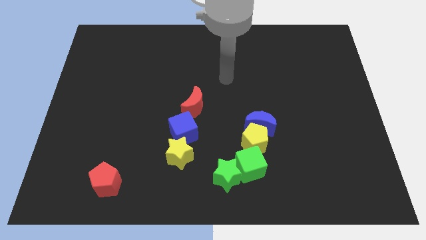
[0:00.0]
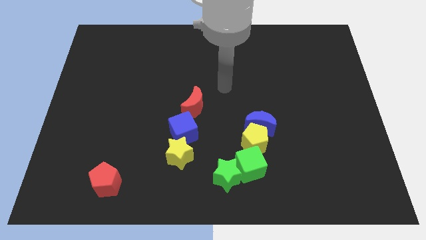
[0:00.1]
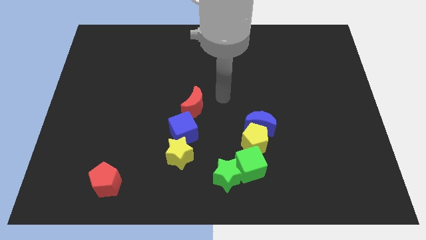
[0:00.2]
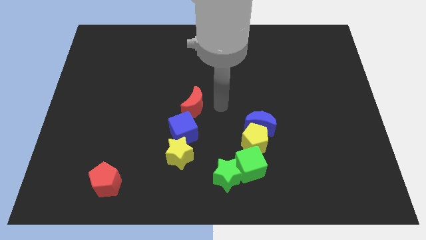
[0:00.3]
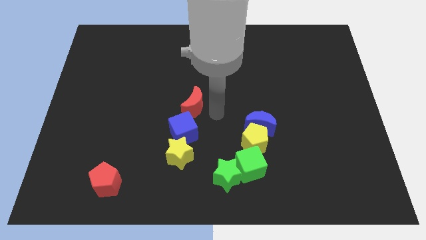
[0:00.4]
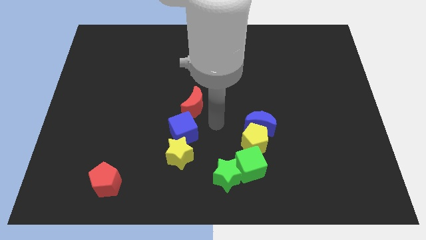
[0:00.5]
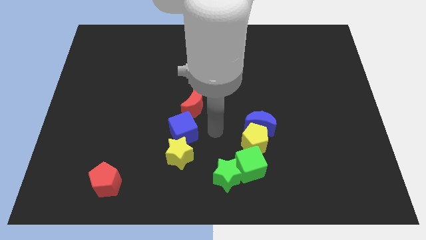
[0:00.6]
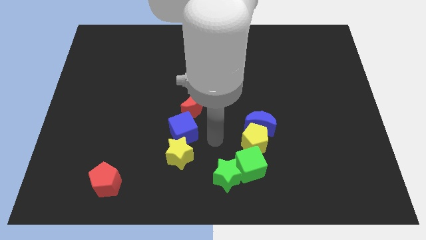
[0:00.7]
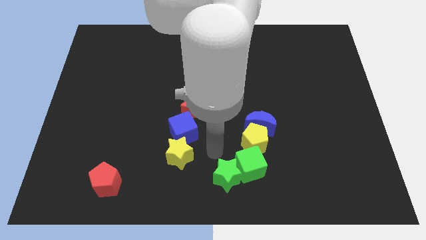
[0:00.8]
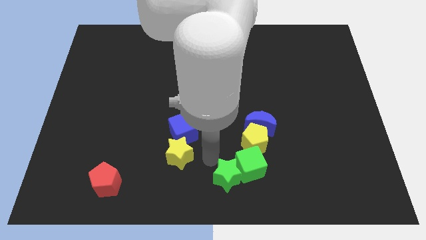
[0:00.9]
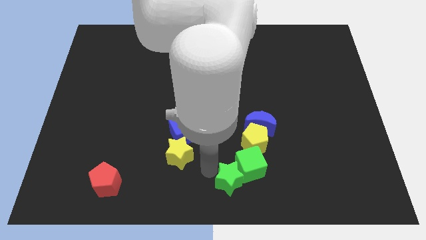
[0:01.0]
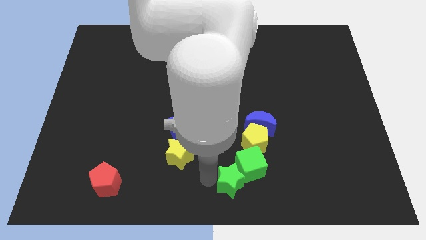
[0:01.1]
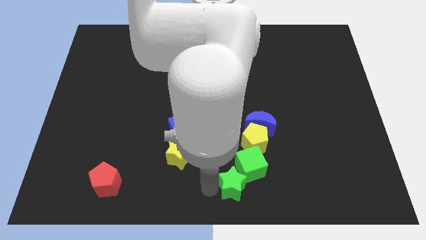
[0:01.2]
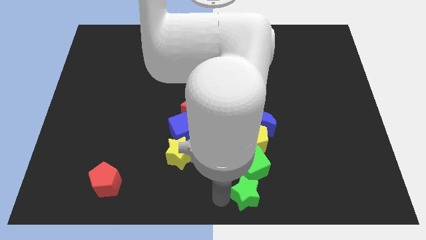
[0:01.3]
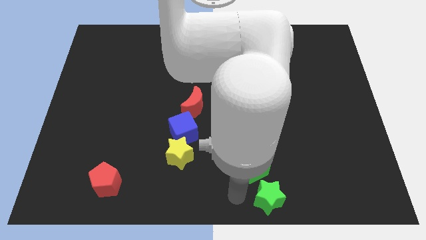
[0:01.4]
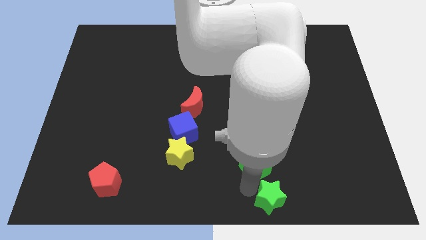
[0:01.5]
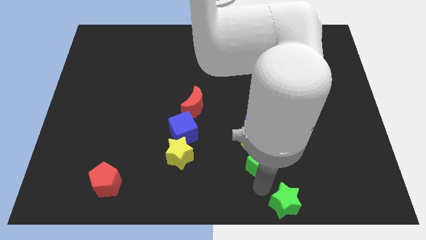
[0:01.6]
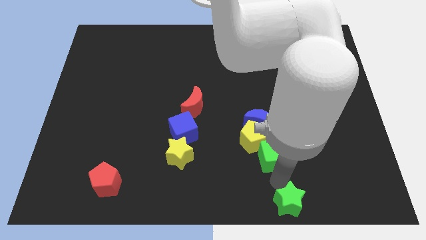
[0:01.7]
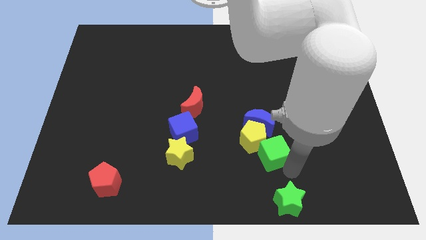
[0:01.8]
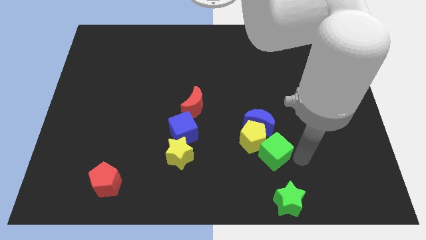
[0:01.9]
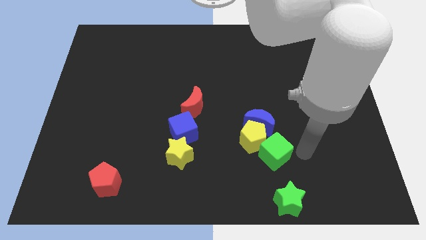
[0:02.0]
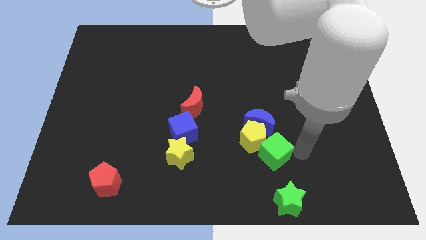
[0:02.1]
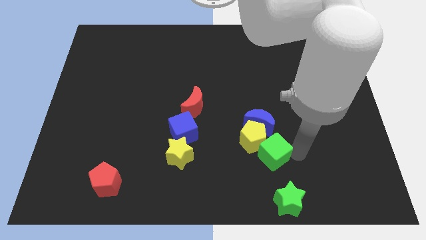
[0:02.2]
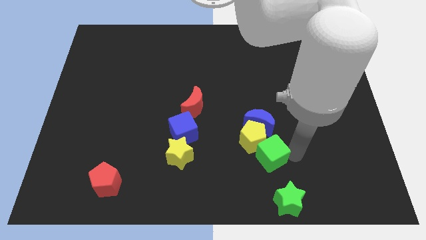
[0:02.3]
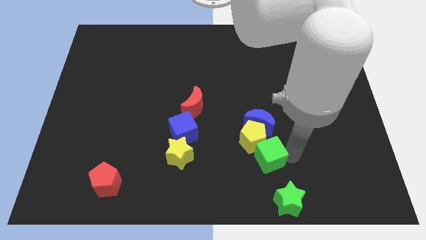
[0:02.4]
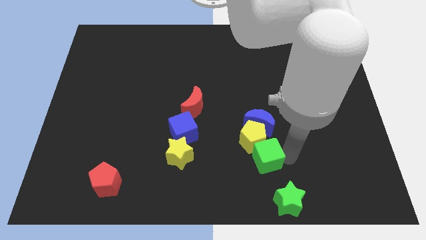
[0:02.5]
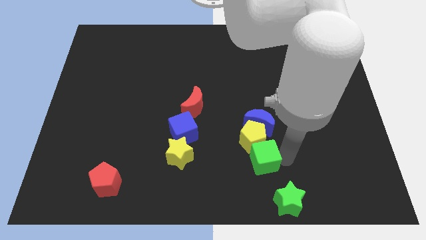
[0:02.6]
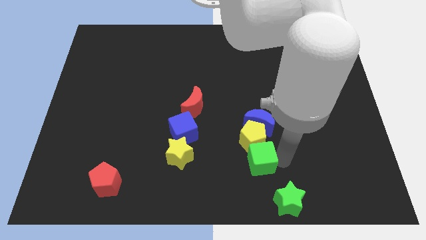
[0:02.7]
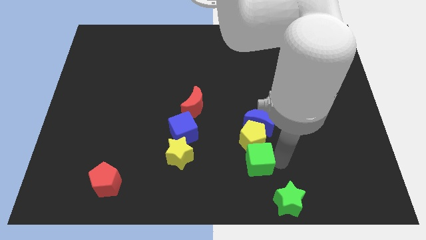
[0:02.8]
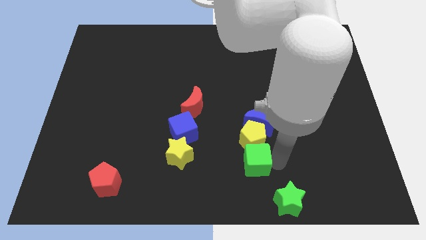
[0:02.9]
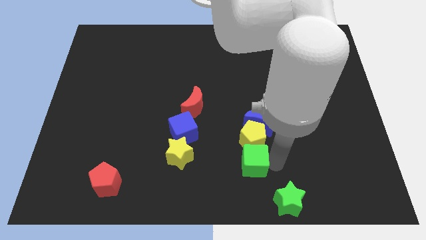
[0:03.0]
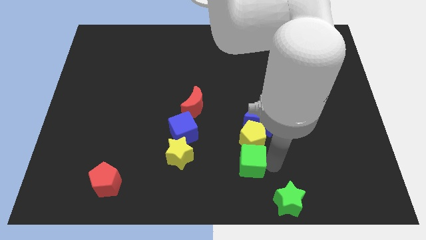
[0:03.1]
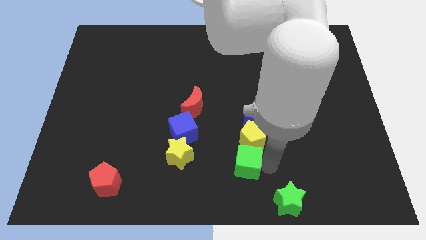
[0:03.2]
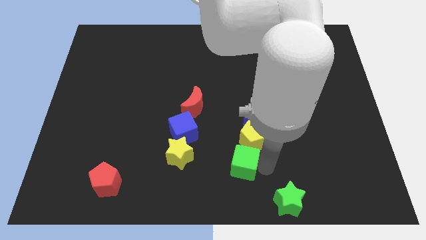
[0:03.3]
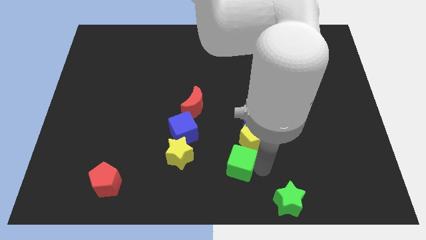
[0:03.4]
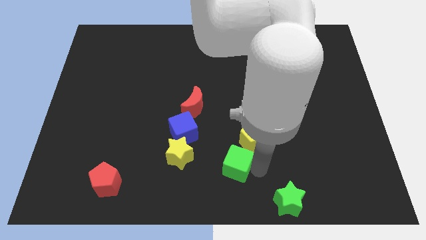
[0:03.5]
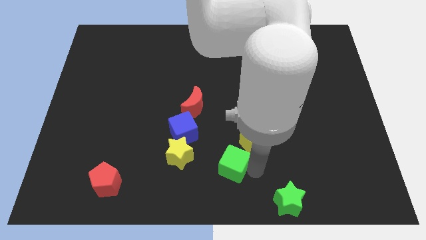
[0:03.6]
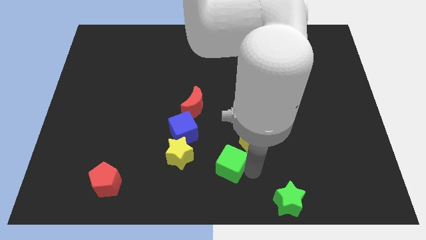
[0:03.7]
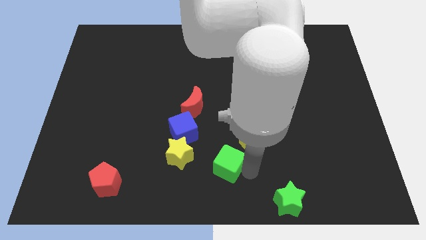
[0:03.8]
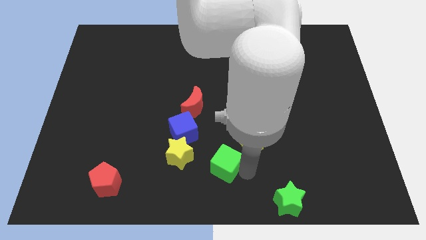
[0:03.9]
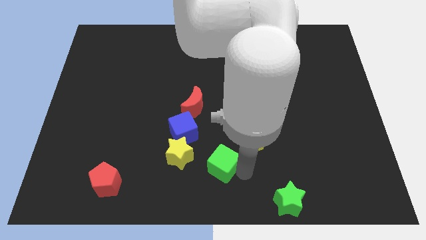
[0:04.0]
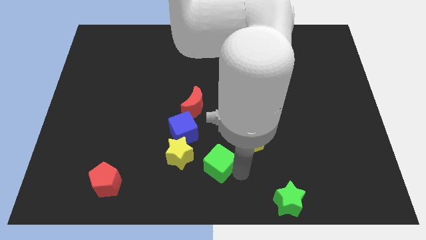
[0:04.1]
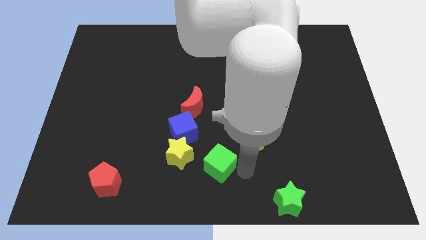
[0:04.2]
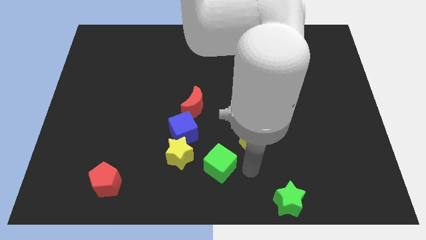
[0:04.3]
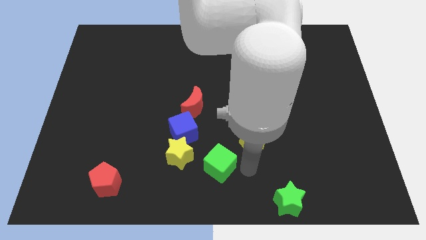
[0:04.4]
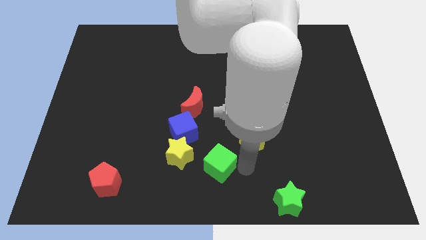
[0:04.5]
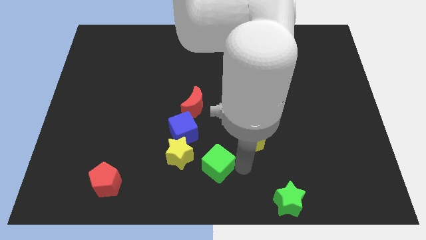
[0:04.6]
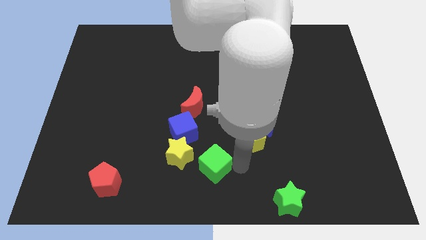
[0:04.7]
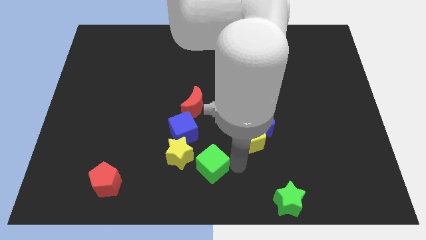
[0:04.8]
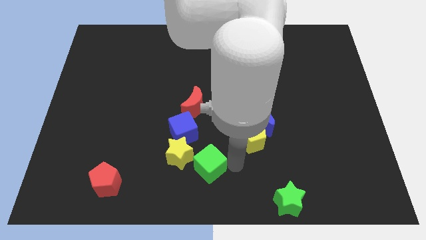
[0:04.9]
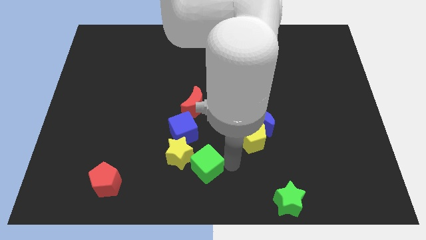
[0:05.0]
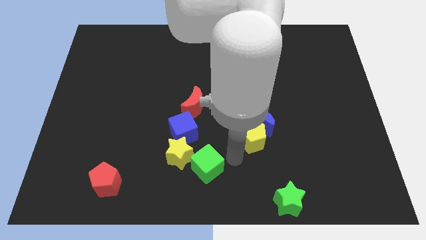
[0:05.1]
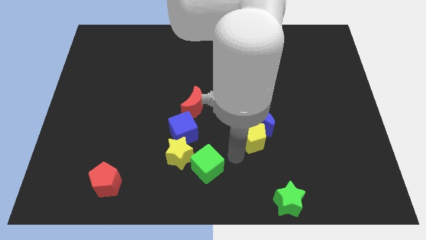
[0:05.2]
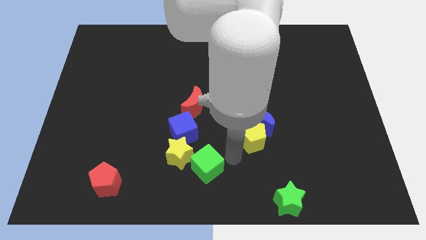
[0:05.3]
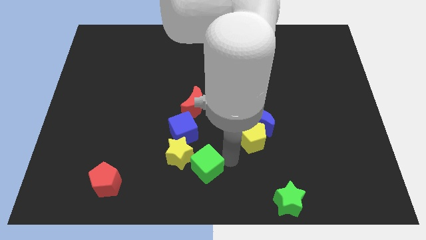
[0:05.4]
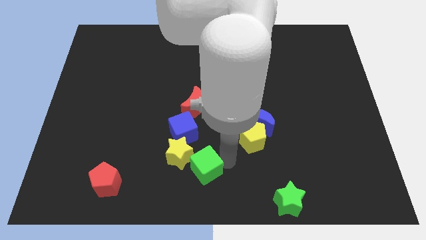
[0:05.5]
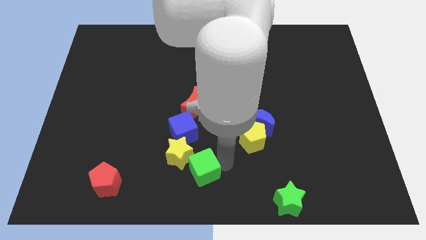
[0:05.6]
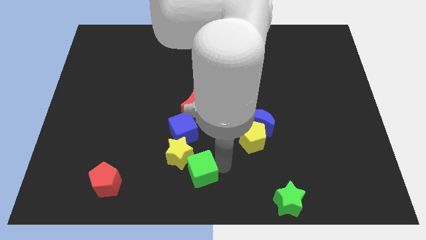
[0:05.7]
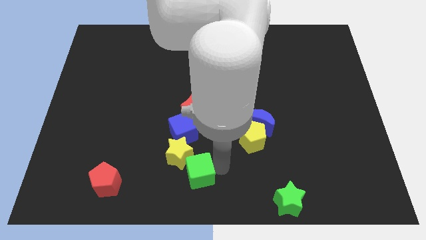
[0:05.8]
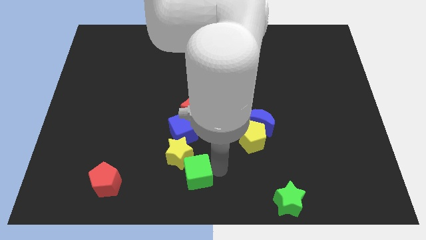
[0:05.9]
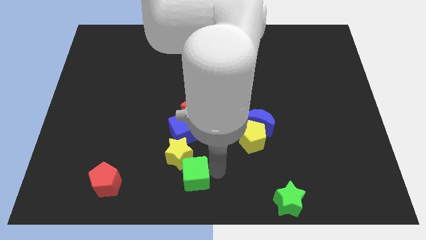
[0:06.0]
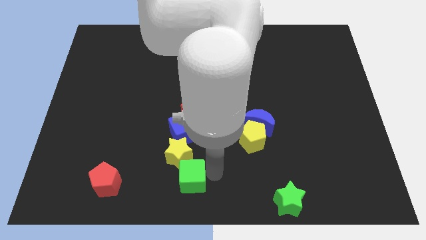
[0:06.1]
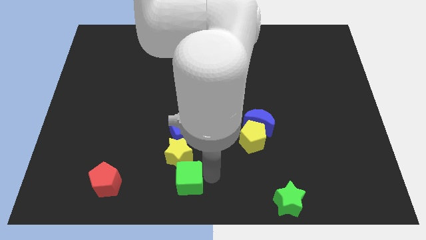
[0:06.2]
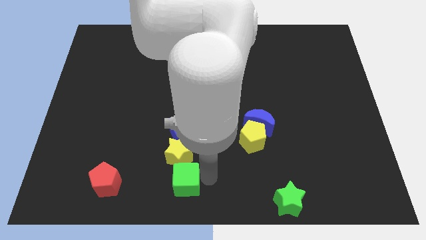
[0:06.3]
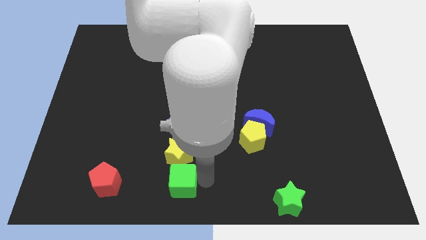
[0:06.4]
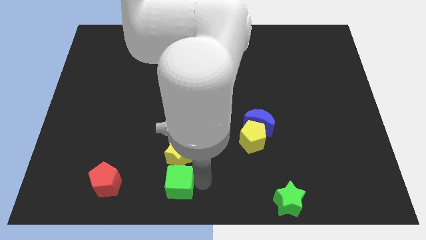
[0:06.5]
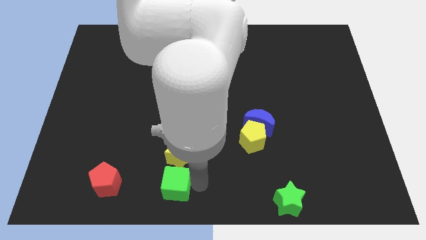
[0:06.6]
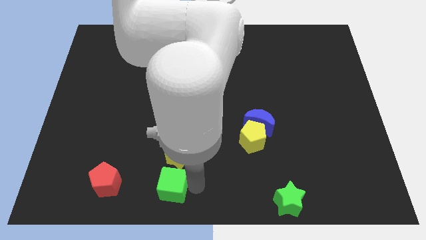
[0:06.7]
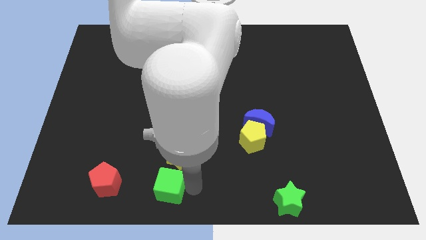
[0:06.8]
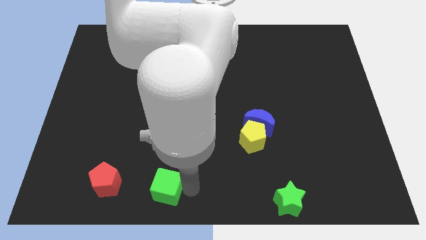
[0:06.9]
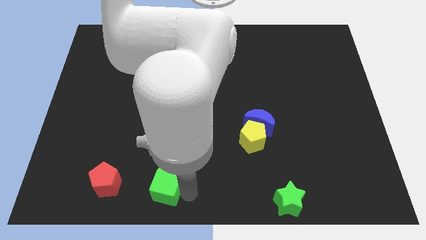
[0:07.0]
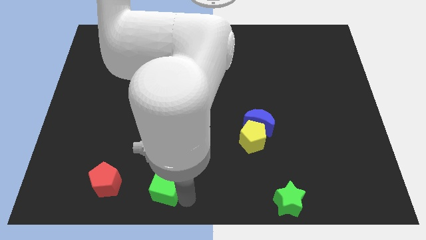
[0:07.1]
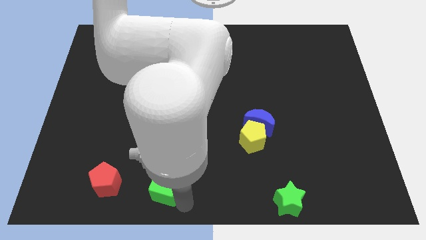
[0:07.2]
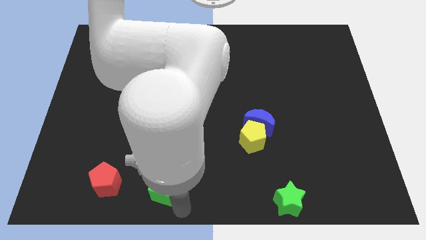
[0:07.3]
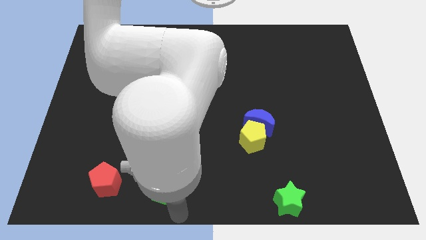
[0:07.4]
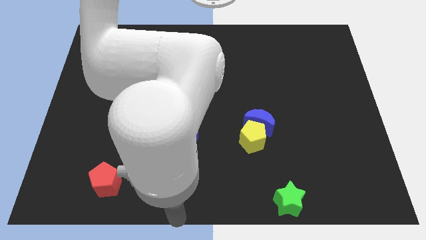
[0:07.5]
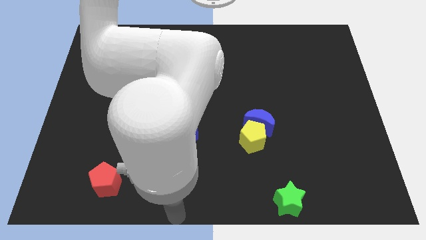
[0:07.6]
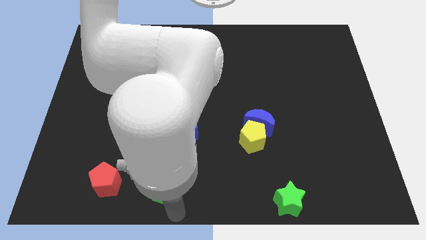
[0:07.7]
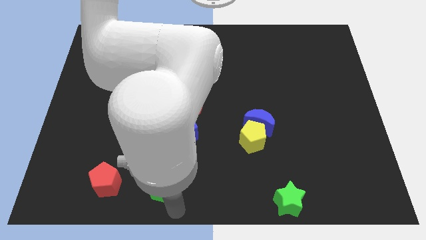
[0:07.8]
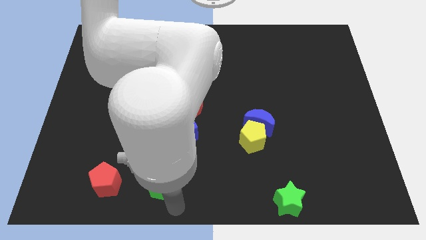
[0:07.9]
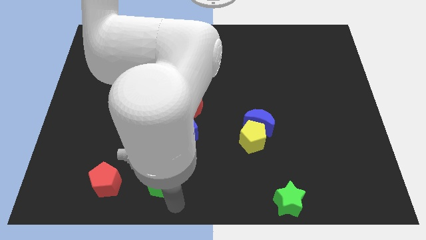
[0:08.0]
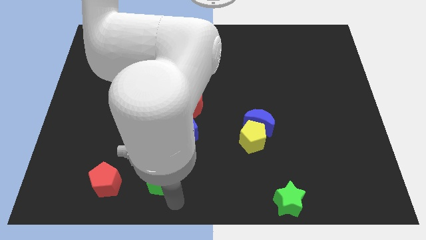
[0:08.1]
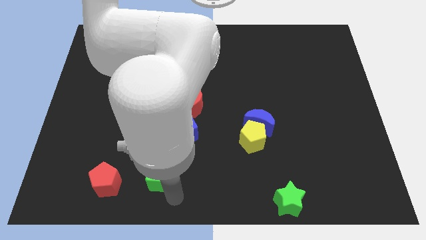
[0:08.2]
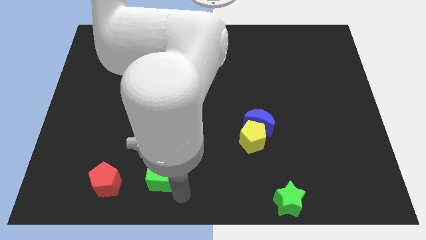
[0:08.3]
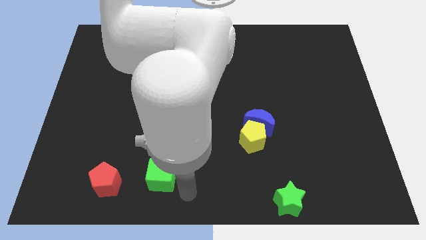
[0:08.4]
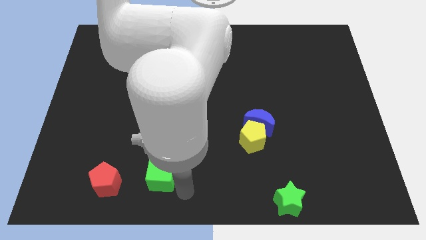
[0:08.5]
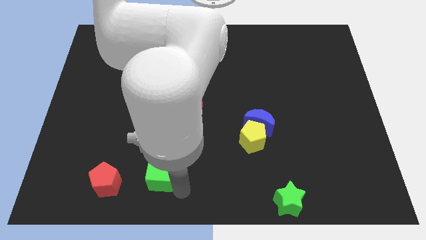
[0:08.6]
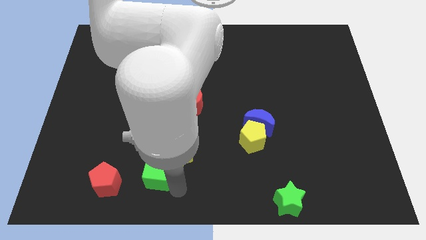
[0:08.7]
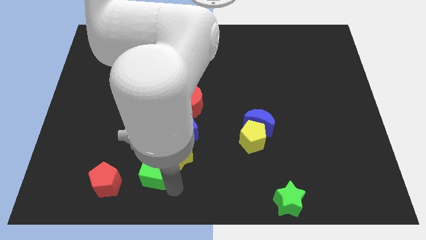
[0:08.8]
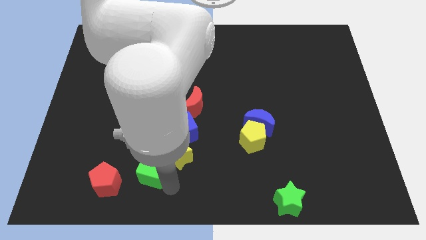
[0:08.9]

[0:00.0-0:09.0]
slide the green cube to the top right of the red pentagon
